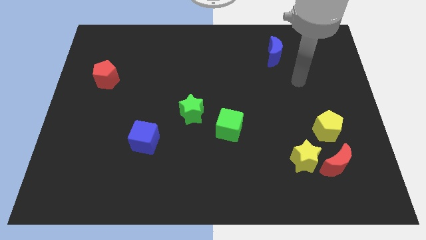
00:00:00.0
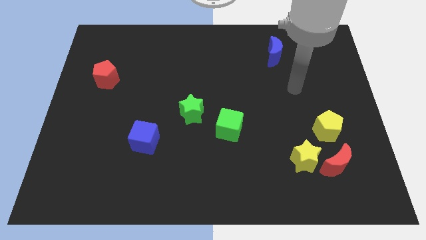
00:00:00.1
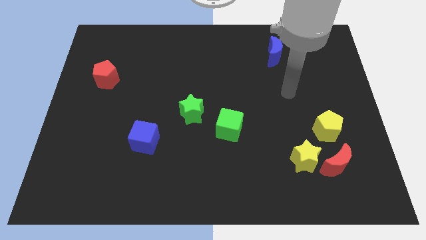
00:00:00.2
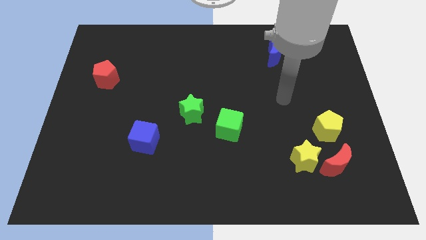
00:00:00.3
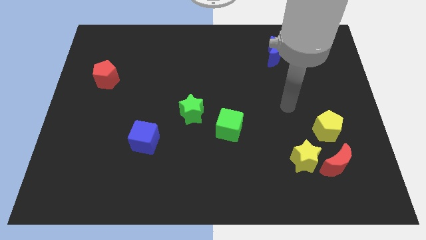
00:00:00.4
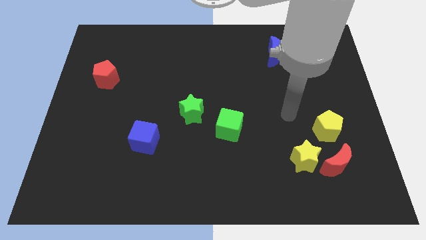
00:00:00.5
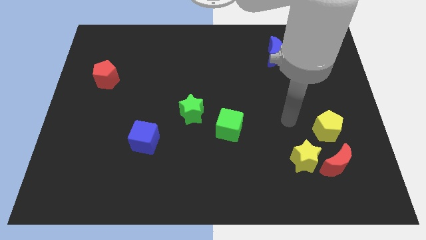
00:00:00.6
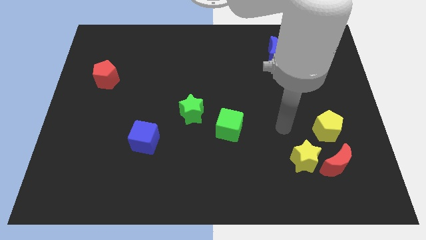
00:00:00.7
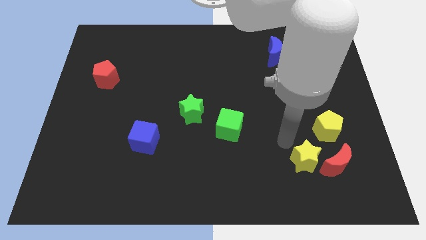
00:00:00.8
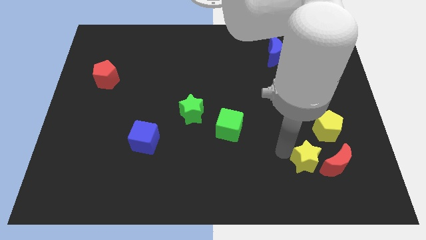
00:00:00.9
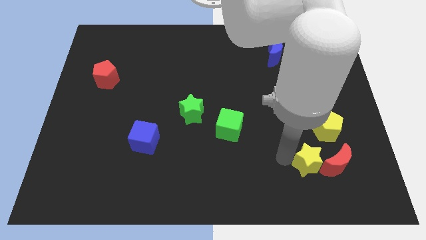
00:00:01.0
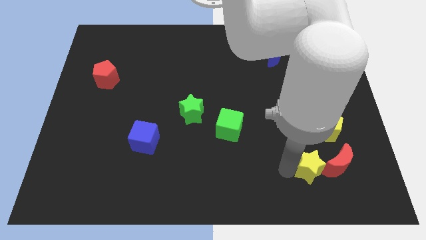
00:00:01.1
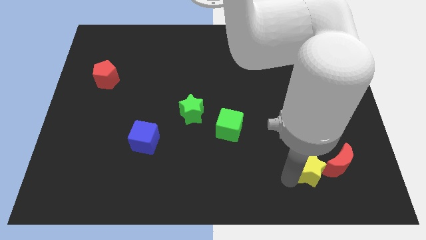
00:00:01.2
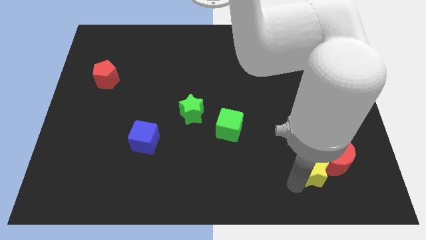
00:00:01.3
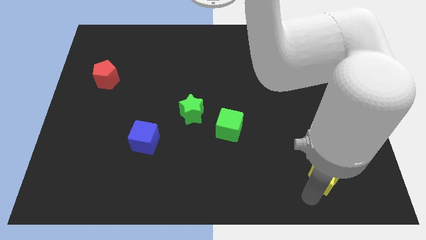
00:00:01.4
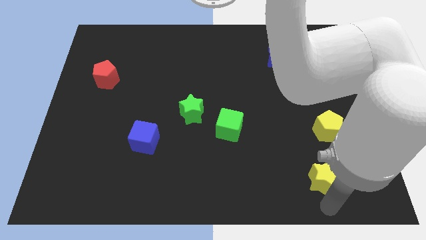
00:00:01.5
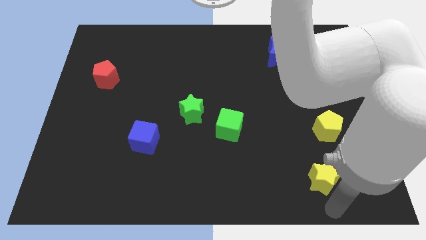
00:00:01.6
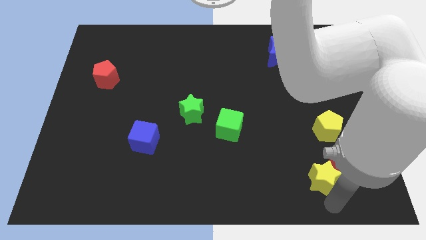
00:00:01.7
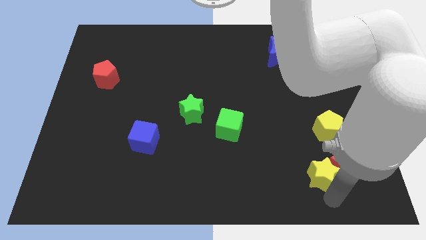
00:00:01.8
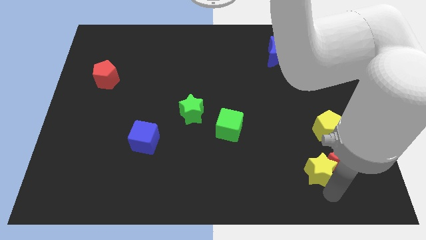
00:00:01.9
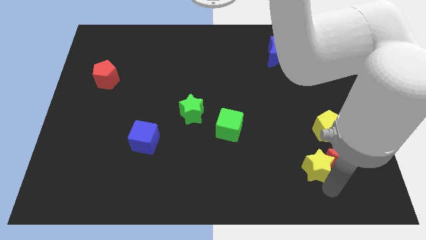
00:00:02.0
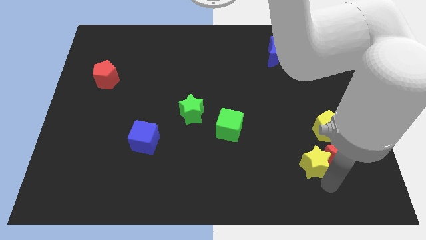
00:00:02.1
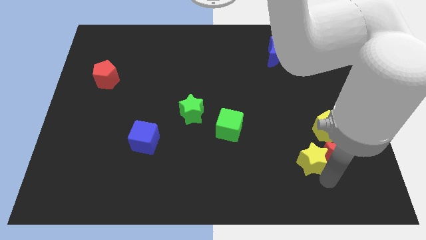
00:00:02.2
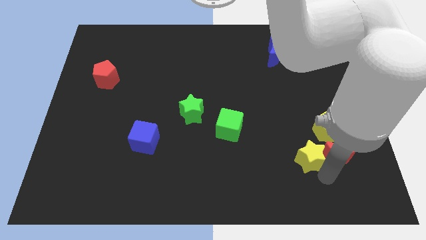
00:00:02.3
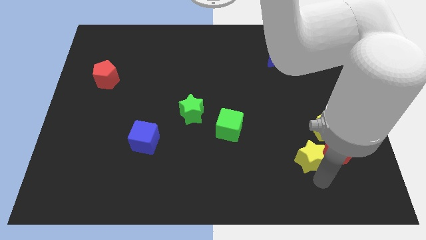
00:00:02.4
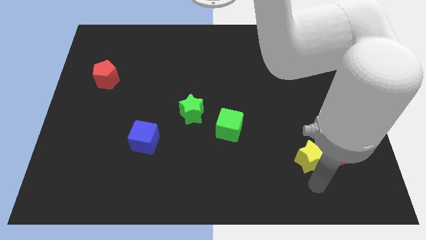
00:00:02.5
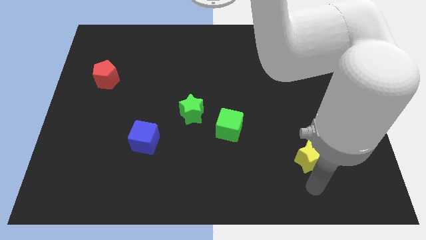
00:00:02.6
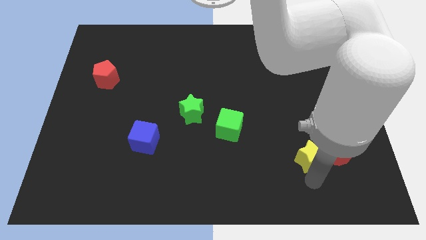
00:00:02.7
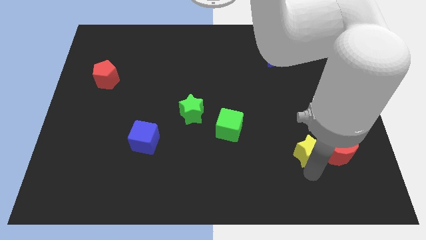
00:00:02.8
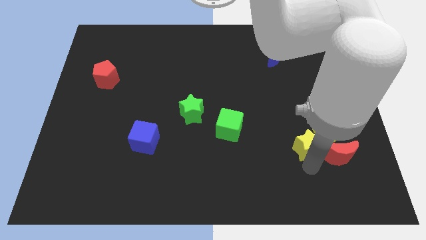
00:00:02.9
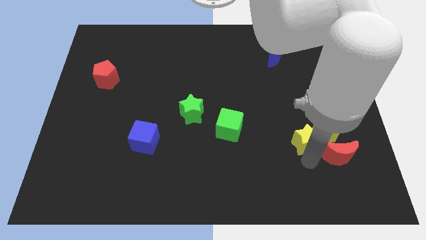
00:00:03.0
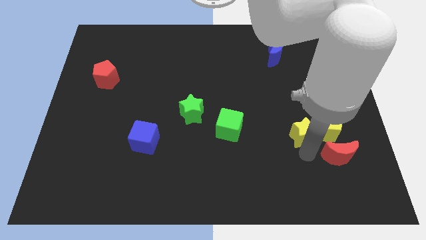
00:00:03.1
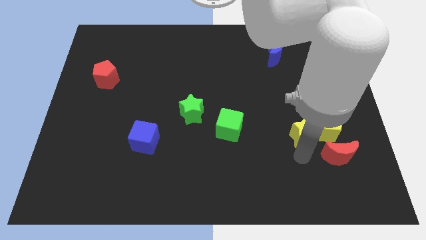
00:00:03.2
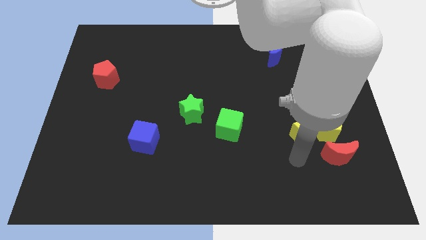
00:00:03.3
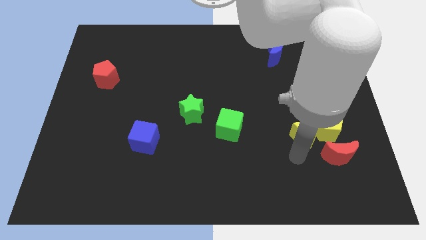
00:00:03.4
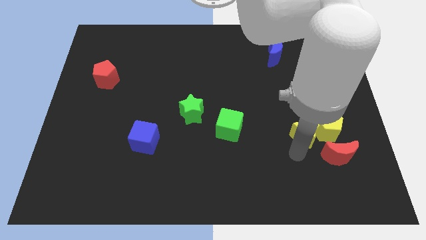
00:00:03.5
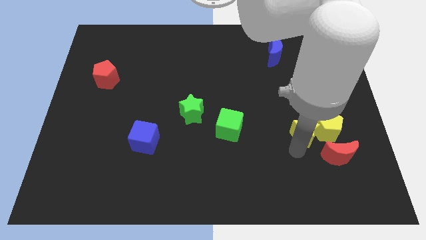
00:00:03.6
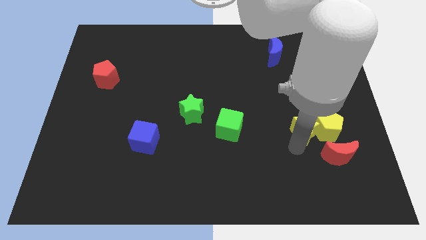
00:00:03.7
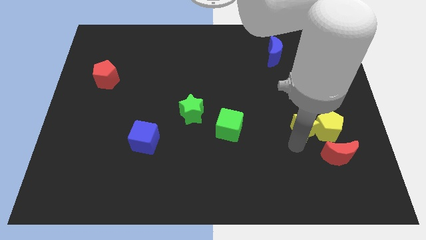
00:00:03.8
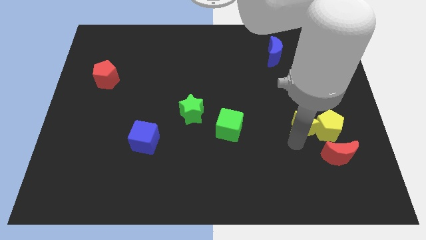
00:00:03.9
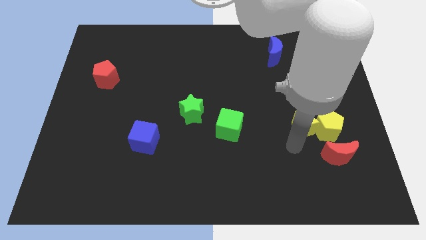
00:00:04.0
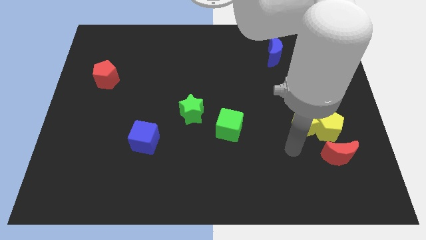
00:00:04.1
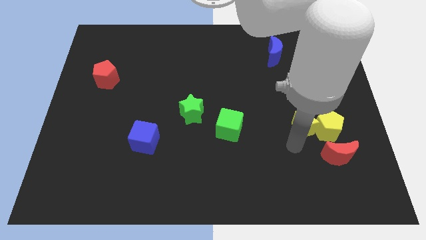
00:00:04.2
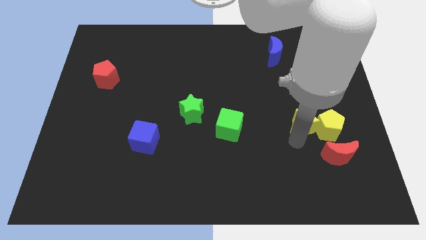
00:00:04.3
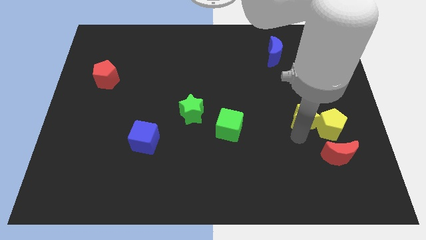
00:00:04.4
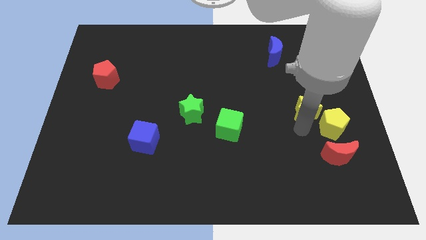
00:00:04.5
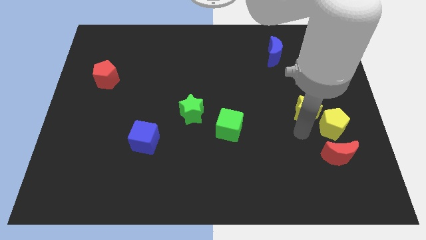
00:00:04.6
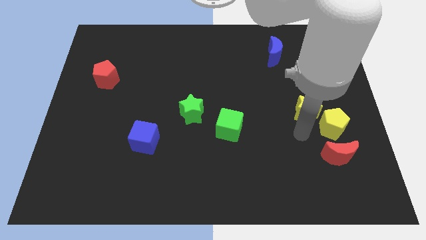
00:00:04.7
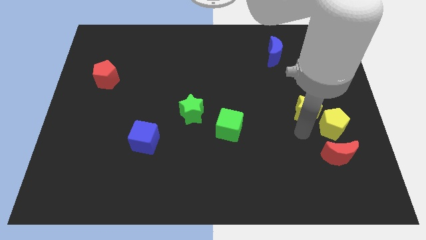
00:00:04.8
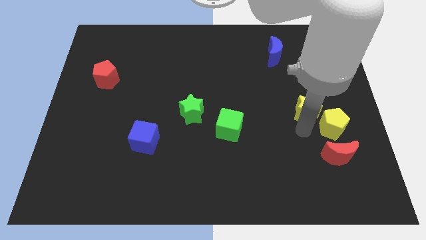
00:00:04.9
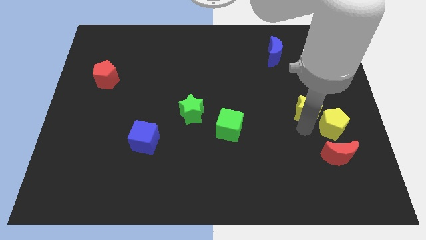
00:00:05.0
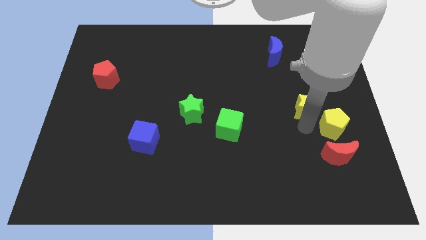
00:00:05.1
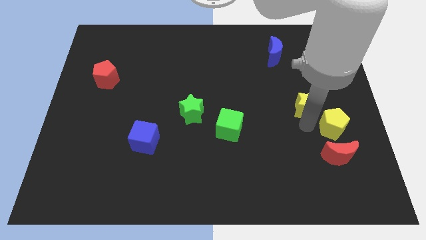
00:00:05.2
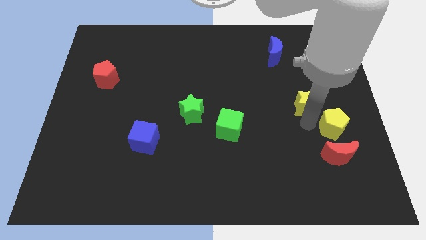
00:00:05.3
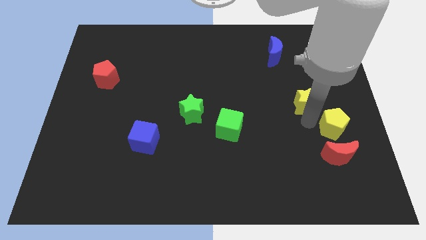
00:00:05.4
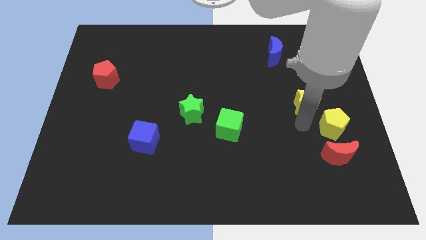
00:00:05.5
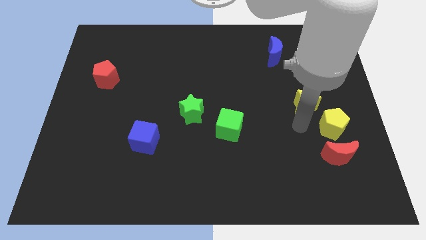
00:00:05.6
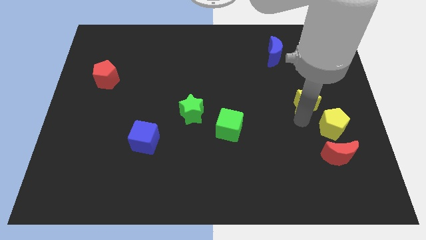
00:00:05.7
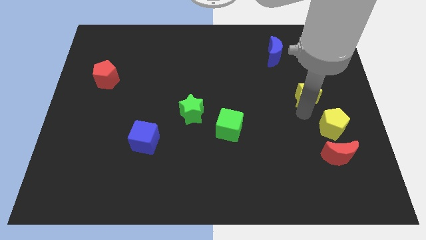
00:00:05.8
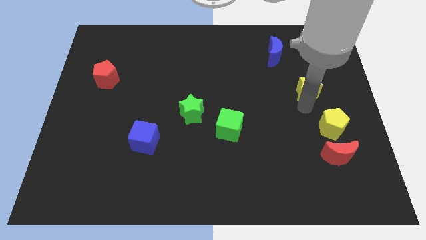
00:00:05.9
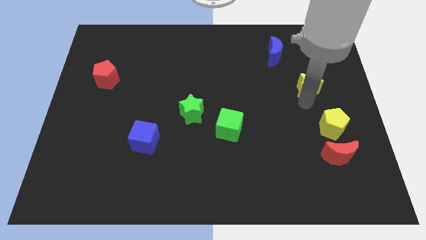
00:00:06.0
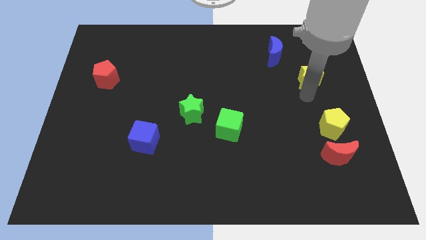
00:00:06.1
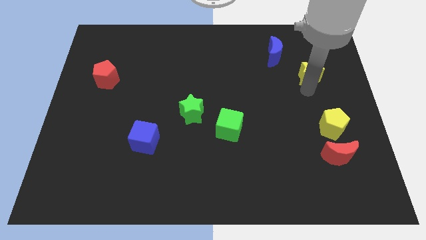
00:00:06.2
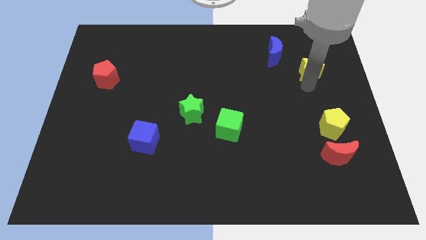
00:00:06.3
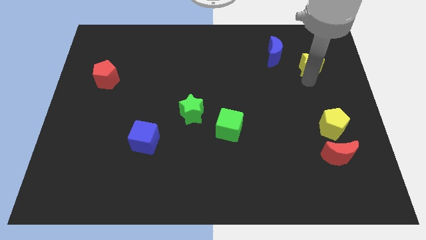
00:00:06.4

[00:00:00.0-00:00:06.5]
push the yellow star right of the blue moon
